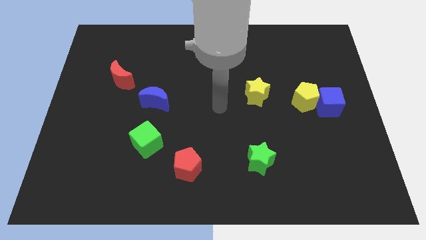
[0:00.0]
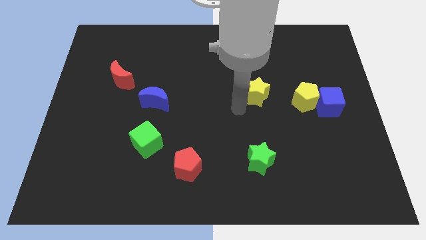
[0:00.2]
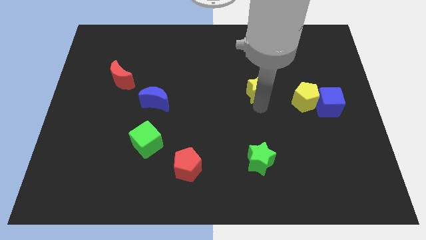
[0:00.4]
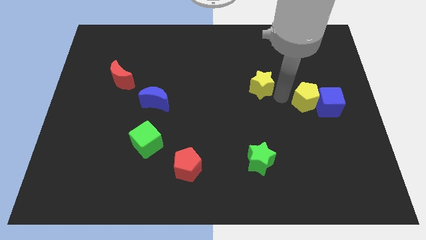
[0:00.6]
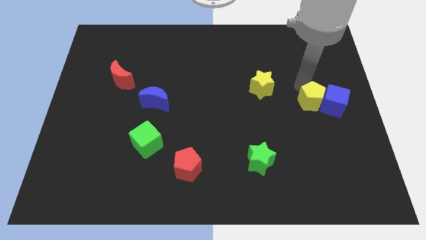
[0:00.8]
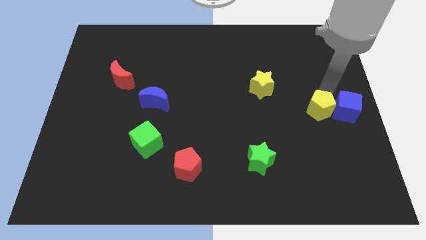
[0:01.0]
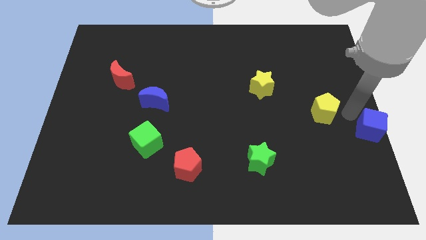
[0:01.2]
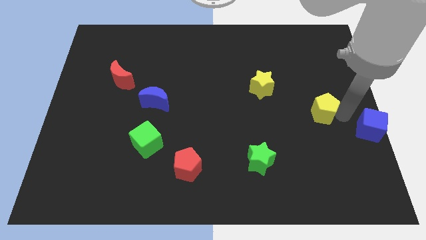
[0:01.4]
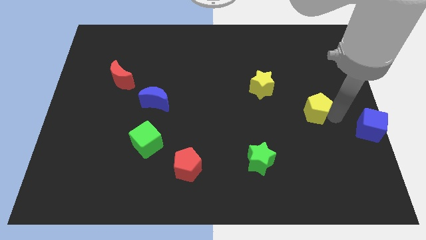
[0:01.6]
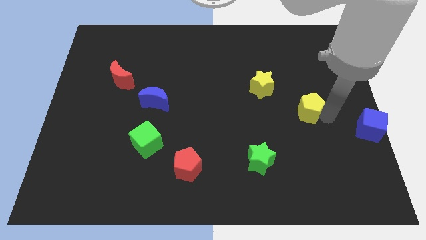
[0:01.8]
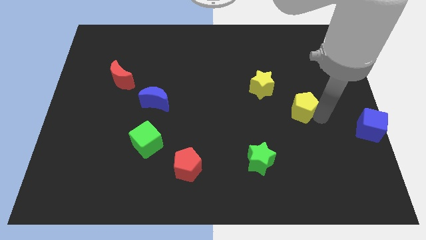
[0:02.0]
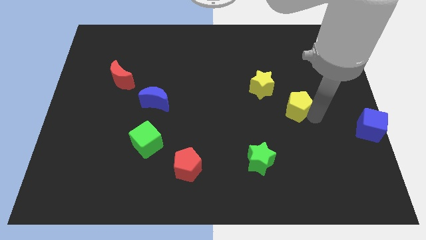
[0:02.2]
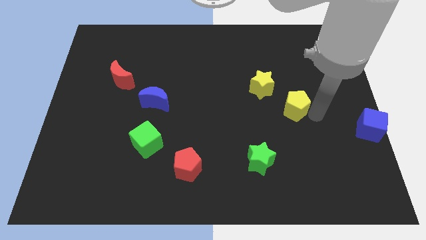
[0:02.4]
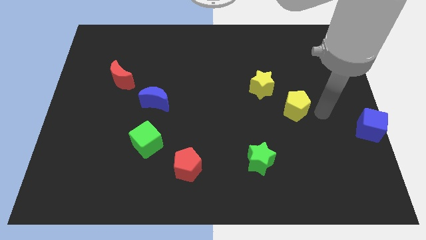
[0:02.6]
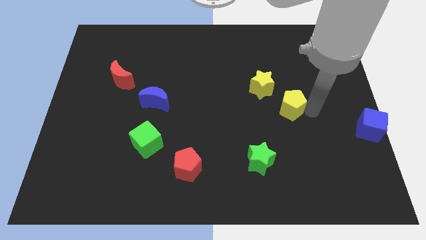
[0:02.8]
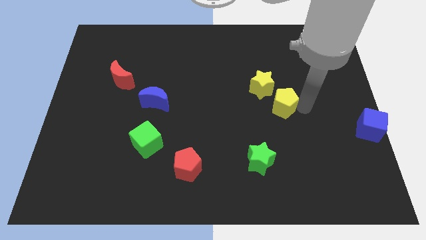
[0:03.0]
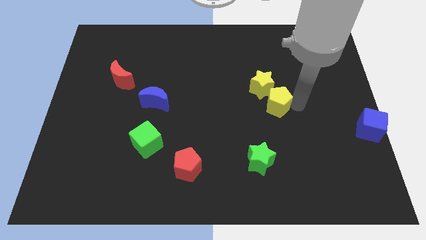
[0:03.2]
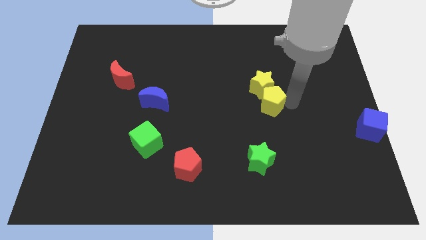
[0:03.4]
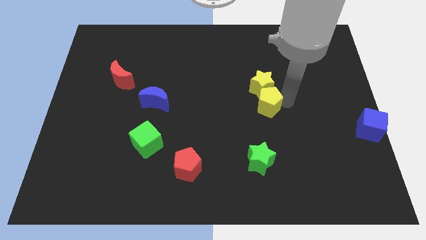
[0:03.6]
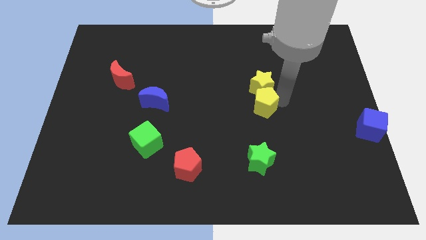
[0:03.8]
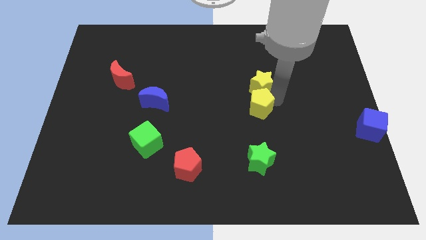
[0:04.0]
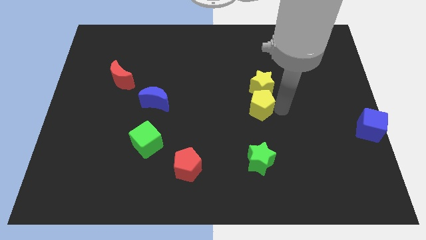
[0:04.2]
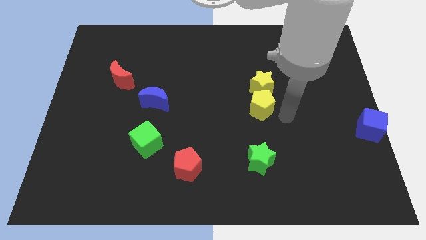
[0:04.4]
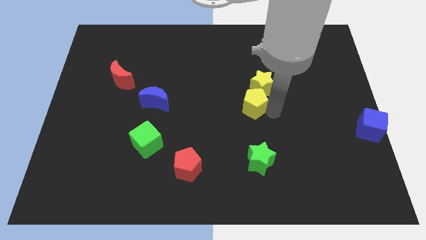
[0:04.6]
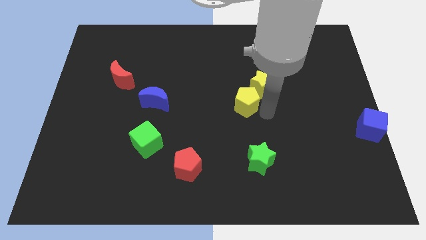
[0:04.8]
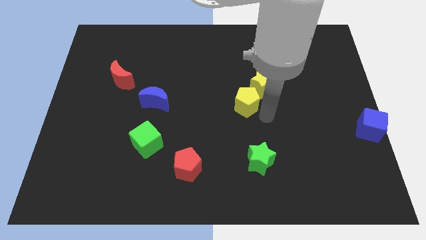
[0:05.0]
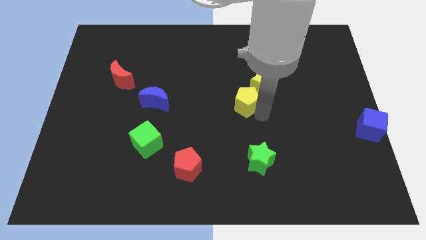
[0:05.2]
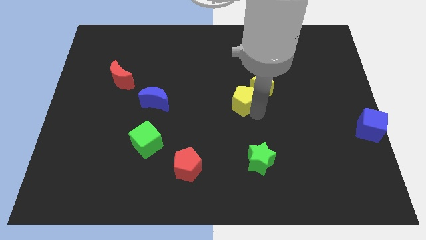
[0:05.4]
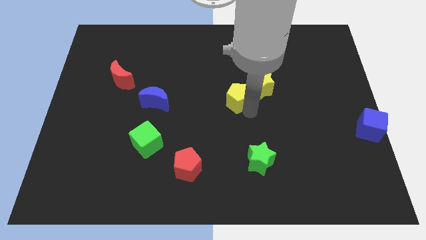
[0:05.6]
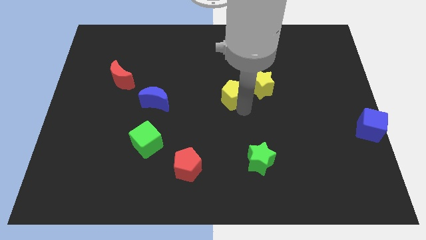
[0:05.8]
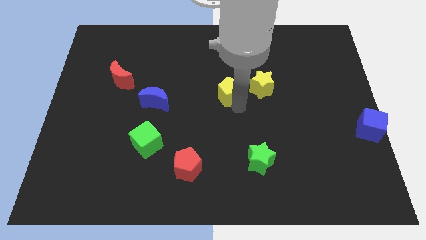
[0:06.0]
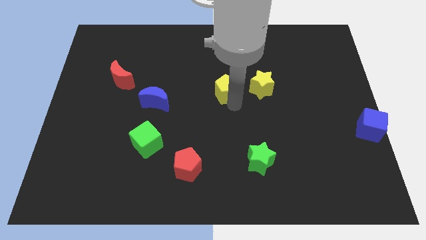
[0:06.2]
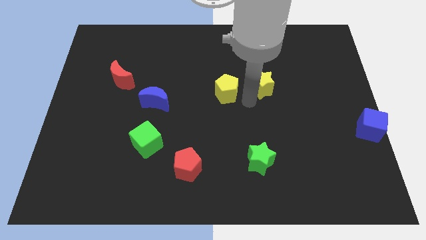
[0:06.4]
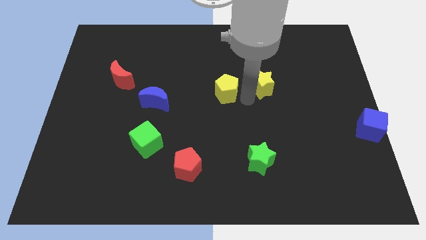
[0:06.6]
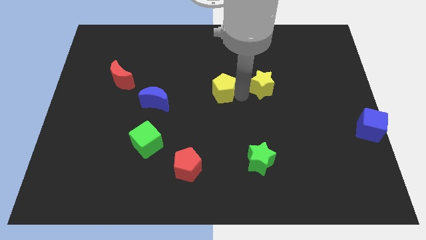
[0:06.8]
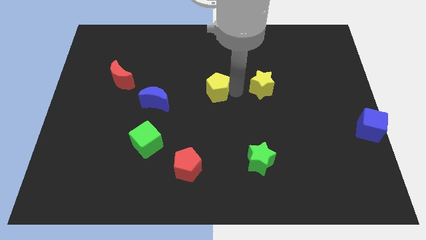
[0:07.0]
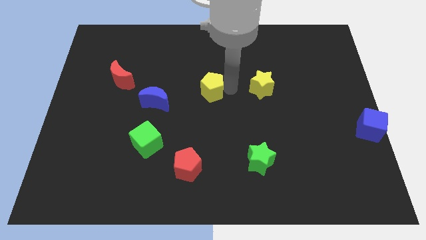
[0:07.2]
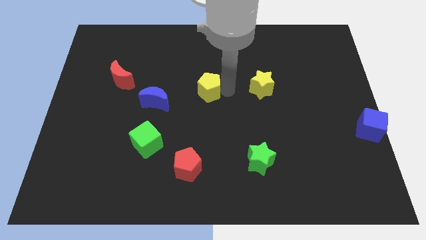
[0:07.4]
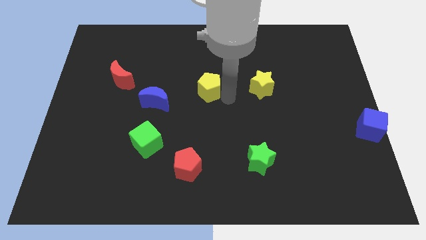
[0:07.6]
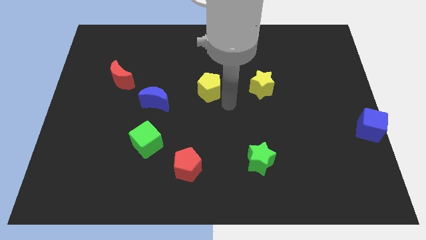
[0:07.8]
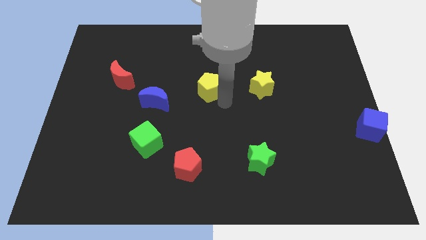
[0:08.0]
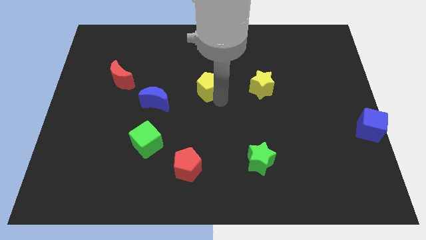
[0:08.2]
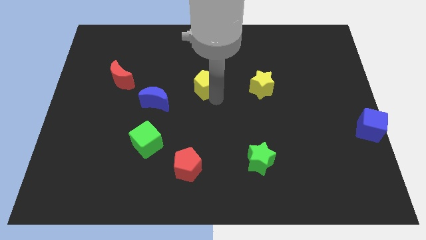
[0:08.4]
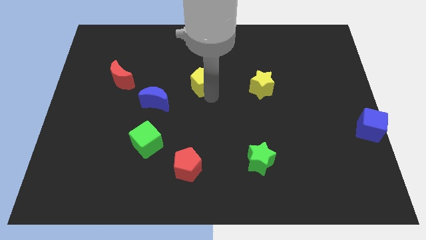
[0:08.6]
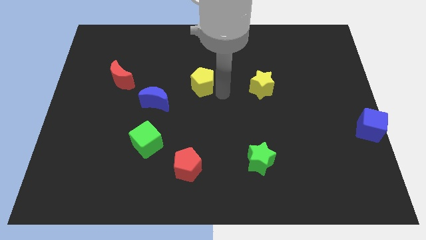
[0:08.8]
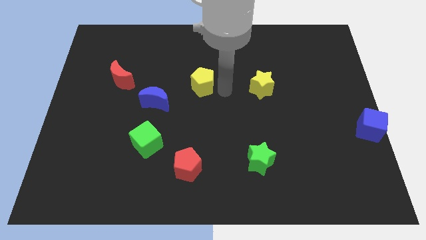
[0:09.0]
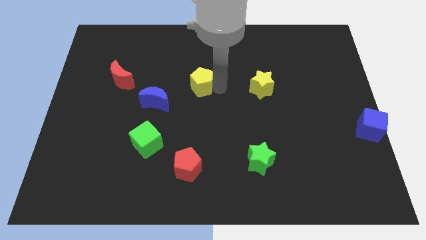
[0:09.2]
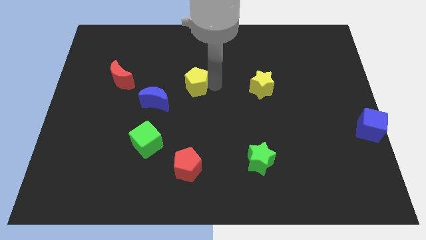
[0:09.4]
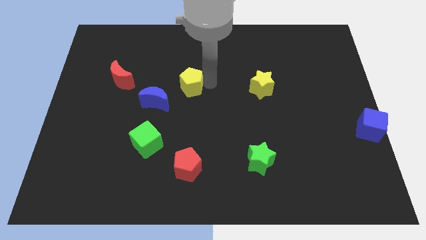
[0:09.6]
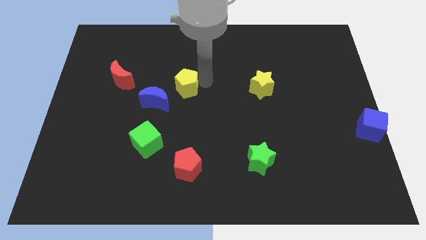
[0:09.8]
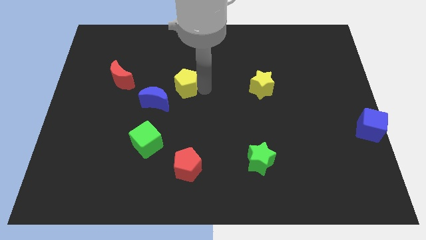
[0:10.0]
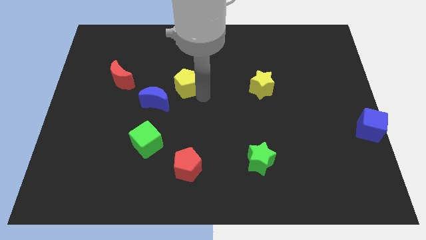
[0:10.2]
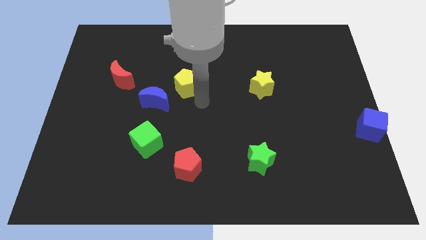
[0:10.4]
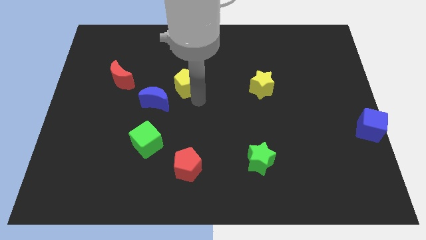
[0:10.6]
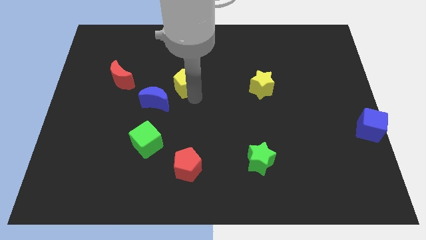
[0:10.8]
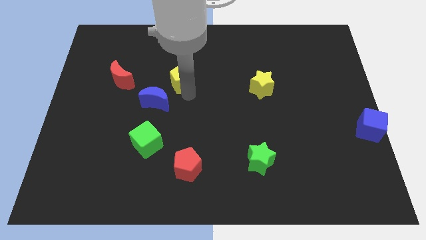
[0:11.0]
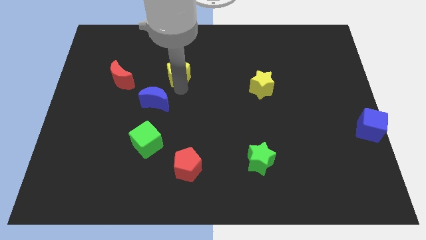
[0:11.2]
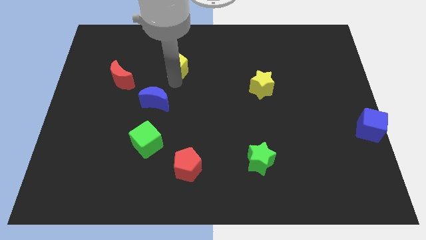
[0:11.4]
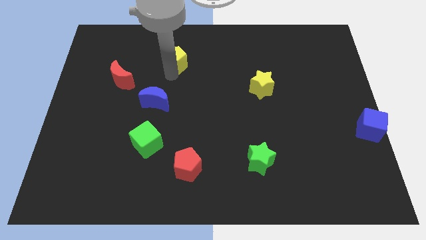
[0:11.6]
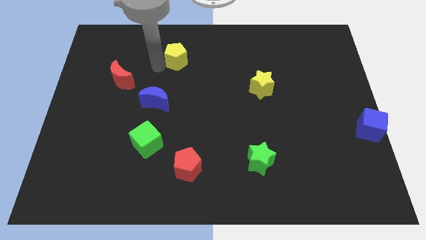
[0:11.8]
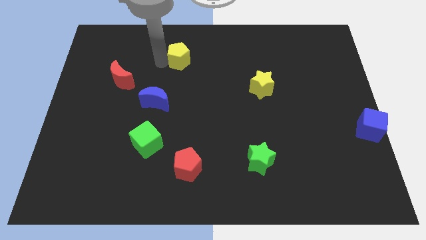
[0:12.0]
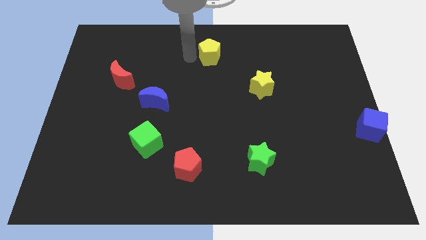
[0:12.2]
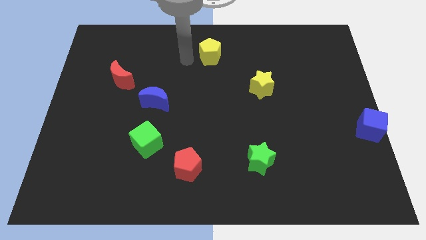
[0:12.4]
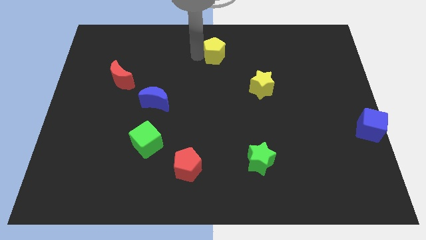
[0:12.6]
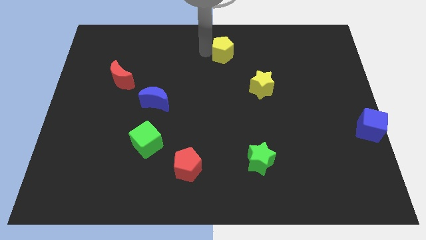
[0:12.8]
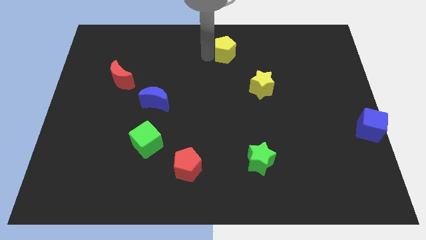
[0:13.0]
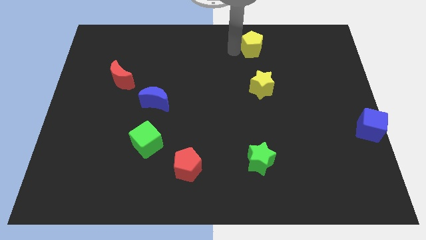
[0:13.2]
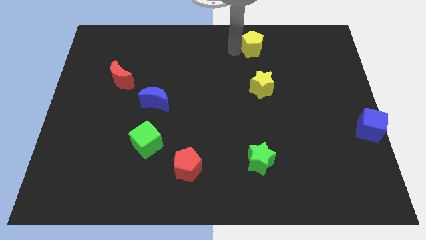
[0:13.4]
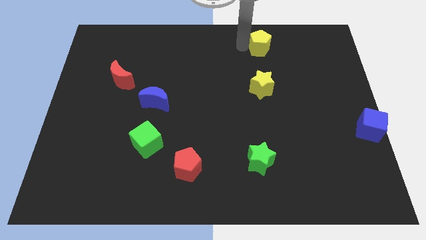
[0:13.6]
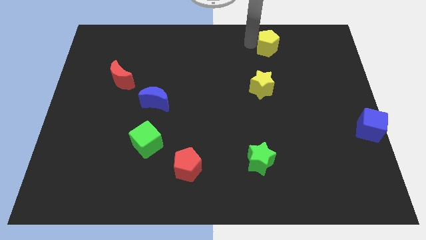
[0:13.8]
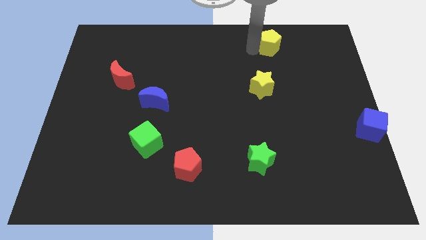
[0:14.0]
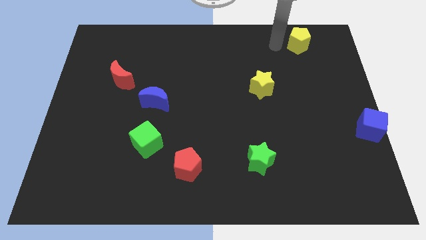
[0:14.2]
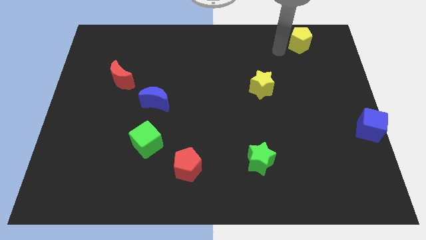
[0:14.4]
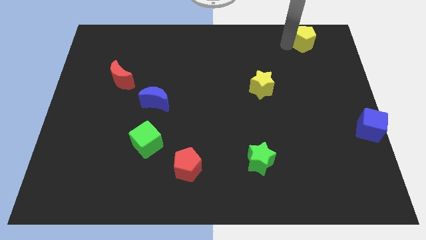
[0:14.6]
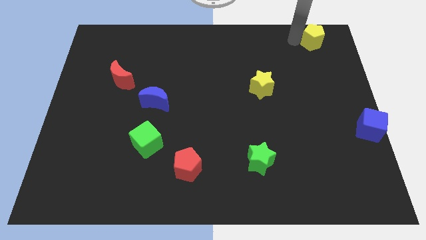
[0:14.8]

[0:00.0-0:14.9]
push the yellow pentagon to the top right
